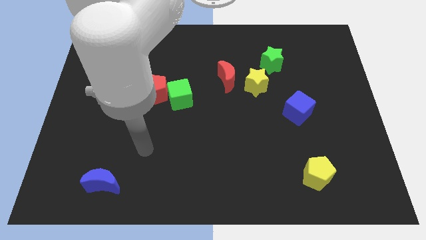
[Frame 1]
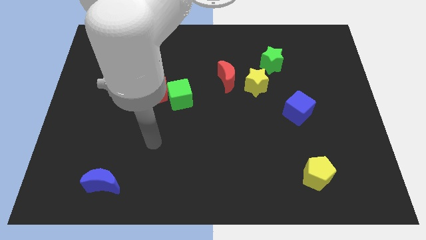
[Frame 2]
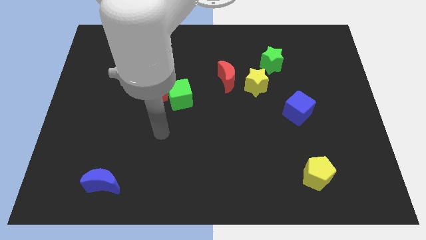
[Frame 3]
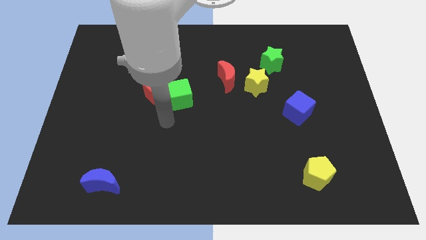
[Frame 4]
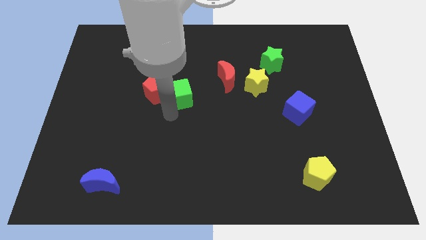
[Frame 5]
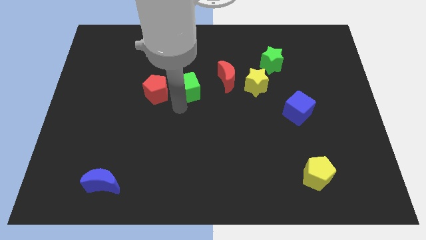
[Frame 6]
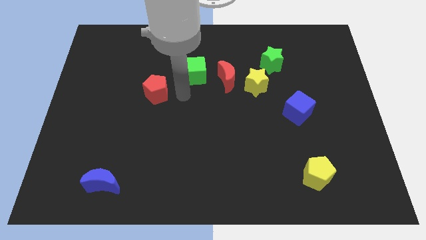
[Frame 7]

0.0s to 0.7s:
pull the red pentagon apart from the green cube

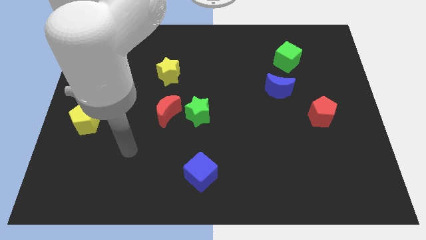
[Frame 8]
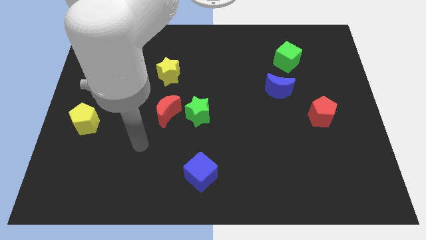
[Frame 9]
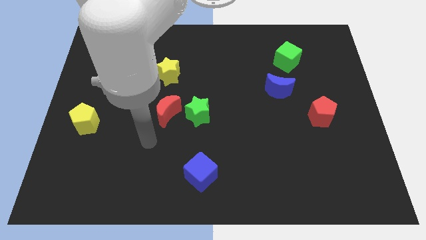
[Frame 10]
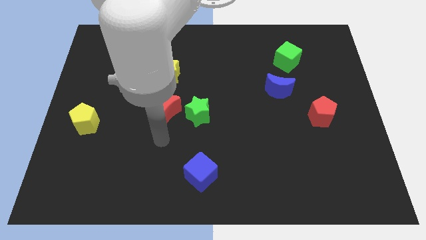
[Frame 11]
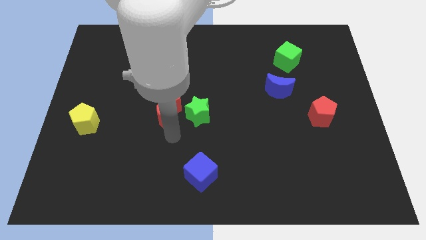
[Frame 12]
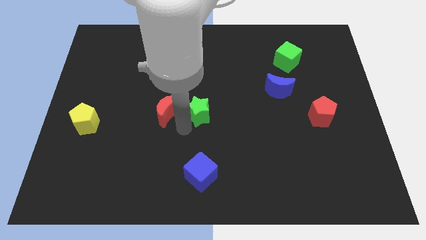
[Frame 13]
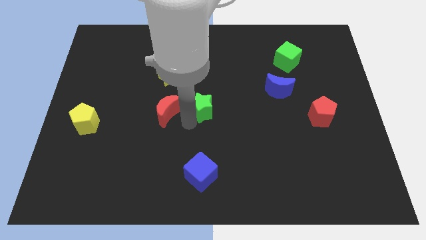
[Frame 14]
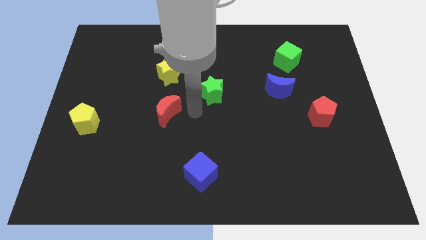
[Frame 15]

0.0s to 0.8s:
separate the red moon from the green star

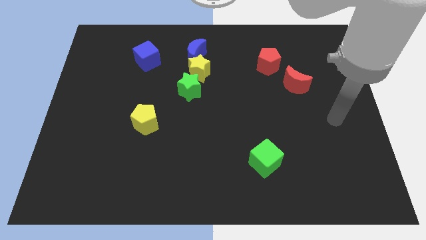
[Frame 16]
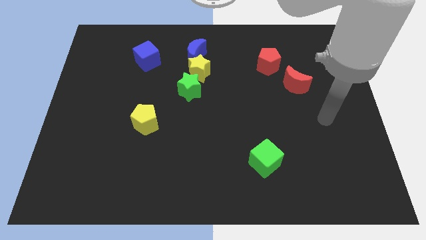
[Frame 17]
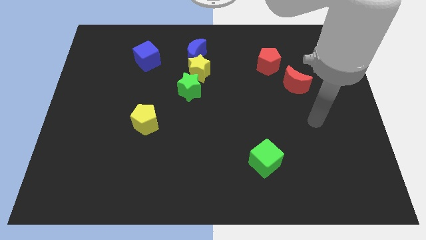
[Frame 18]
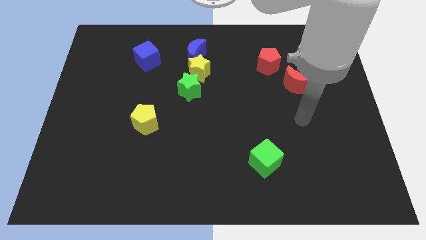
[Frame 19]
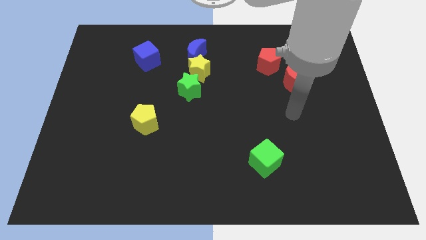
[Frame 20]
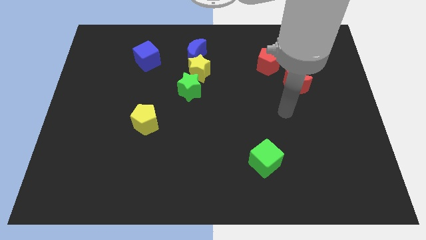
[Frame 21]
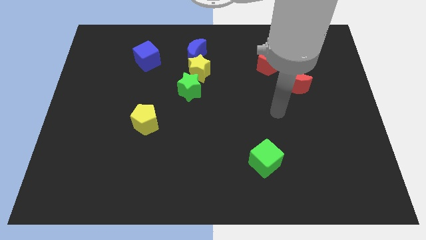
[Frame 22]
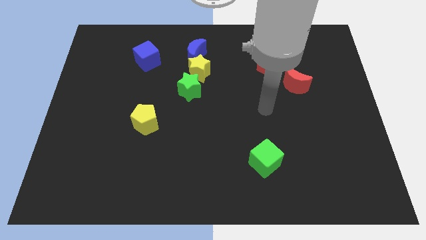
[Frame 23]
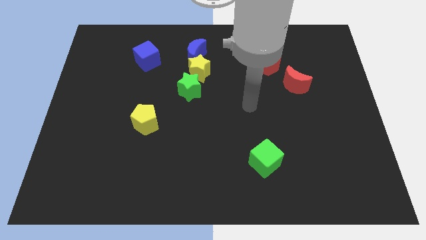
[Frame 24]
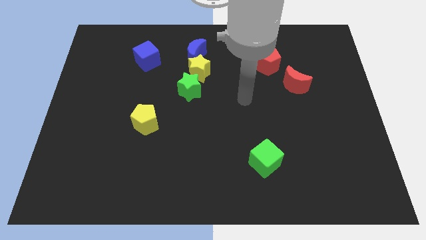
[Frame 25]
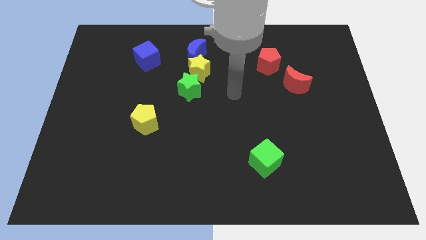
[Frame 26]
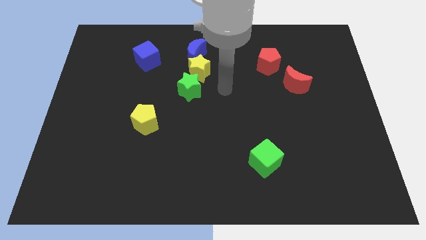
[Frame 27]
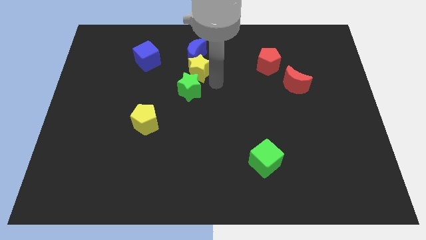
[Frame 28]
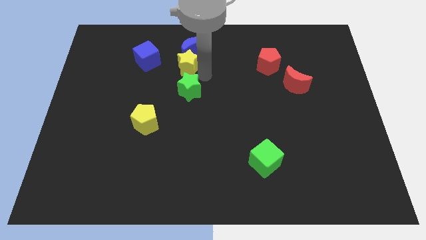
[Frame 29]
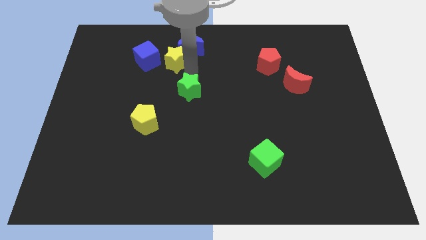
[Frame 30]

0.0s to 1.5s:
separate the green star from the yellow star

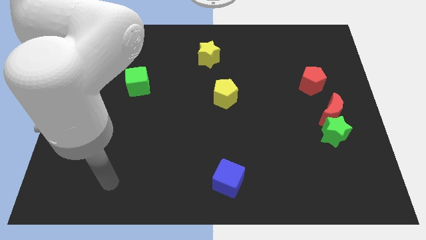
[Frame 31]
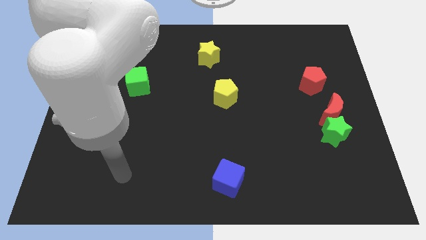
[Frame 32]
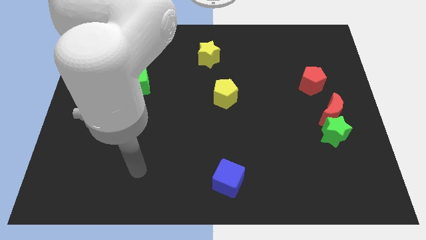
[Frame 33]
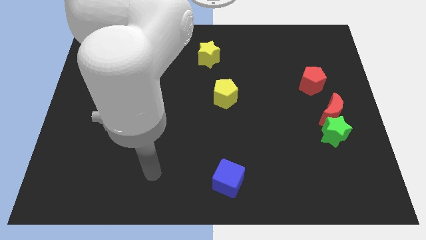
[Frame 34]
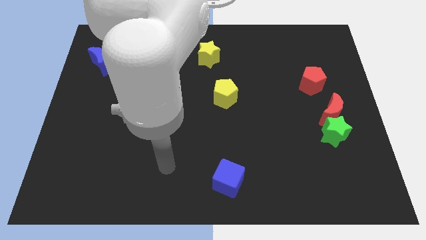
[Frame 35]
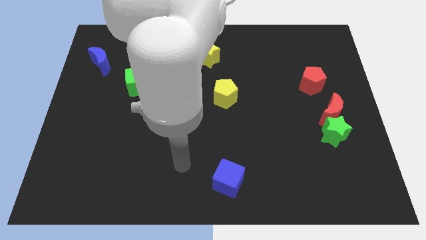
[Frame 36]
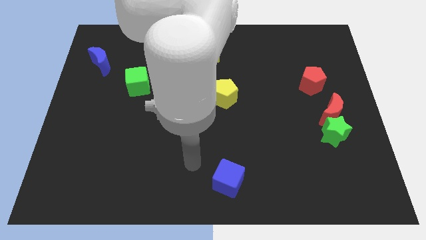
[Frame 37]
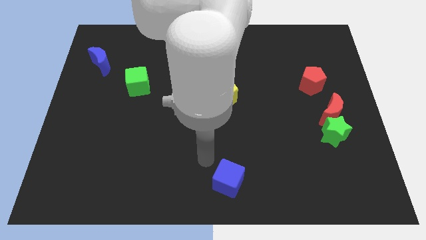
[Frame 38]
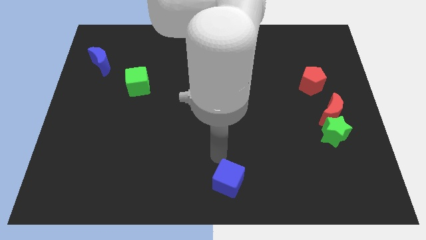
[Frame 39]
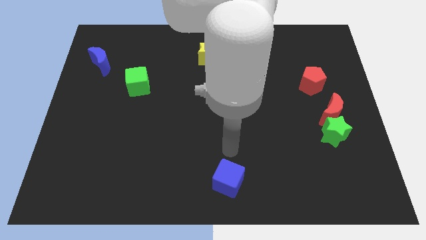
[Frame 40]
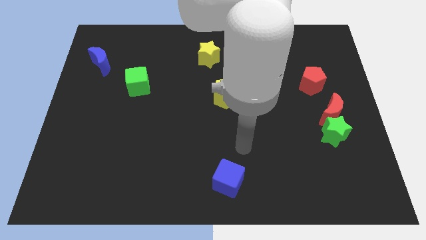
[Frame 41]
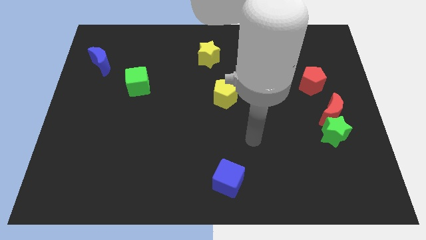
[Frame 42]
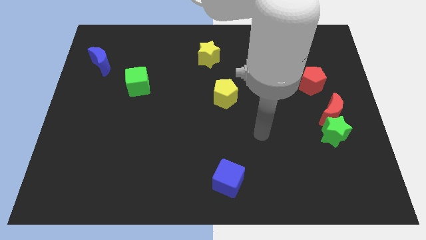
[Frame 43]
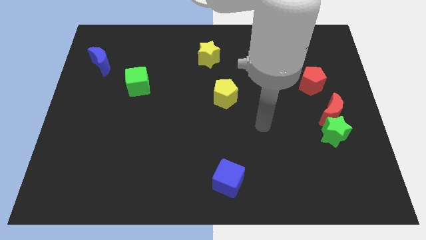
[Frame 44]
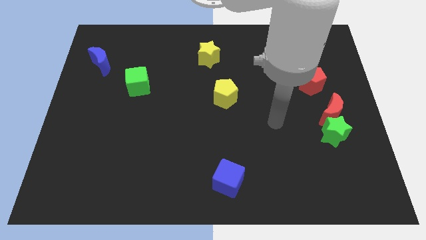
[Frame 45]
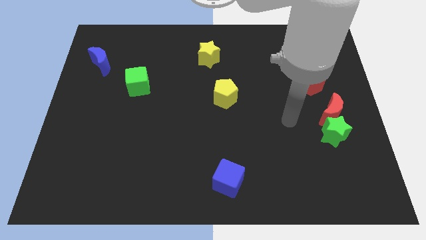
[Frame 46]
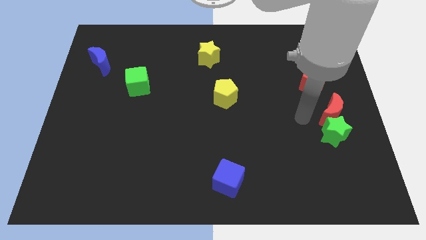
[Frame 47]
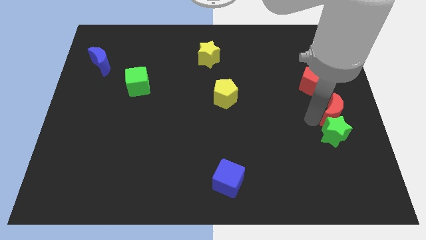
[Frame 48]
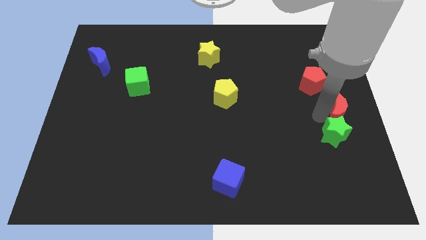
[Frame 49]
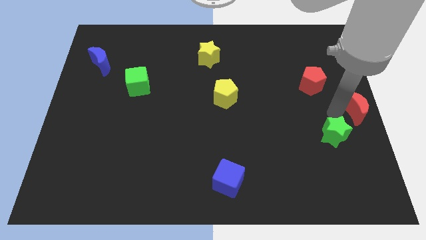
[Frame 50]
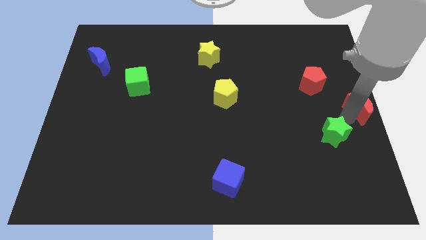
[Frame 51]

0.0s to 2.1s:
pull the green star apart from the red moon

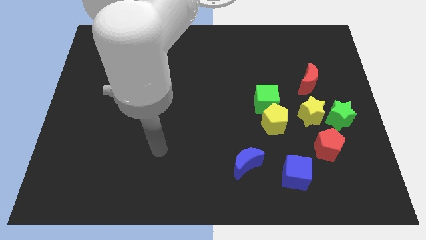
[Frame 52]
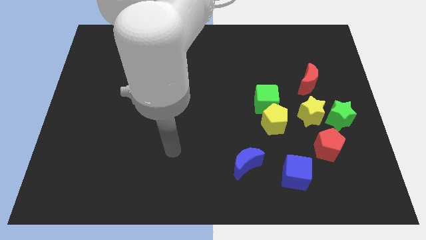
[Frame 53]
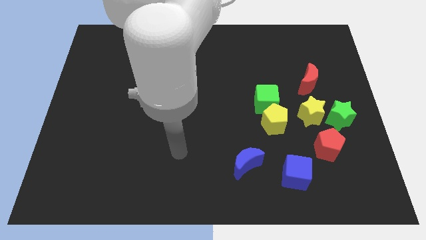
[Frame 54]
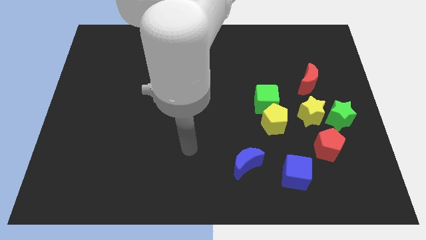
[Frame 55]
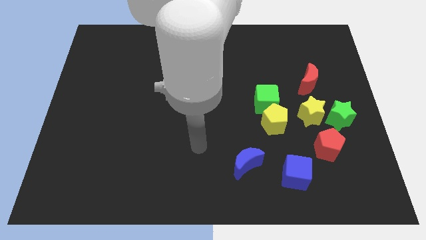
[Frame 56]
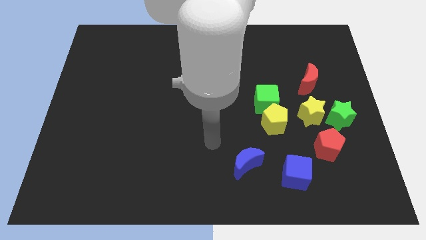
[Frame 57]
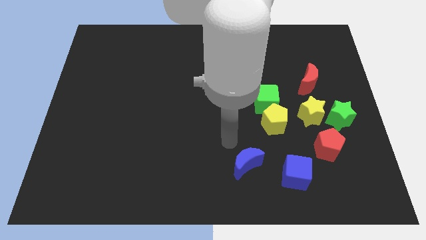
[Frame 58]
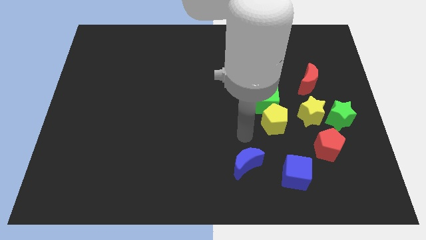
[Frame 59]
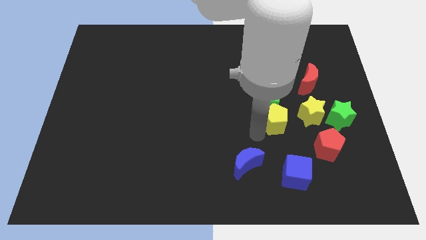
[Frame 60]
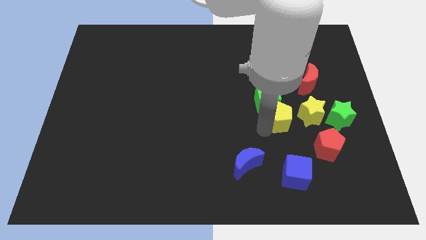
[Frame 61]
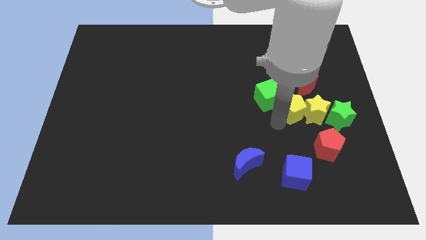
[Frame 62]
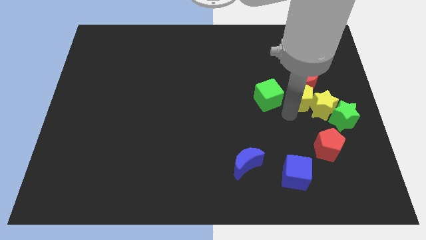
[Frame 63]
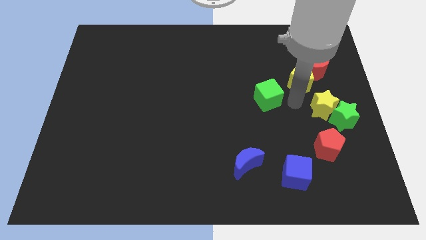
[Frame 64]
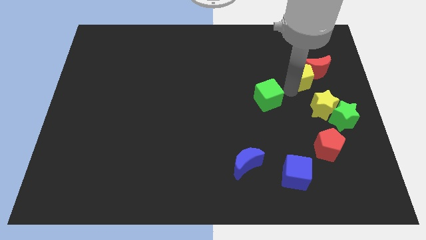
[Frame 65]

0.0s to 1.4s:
move the green cube away from the yellow pentagon

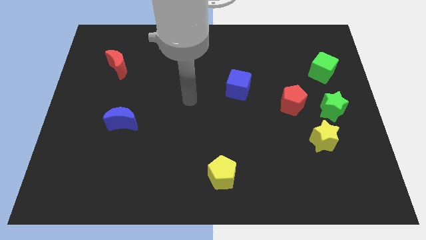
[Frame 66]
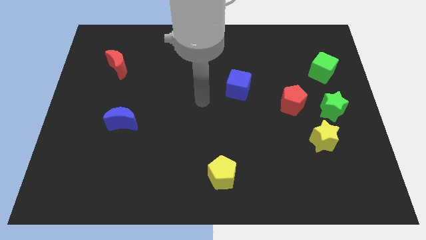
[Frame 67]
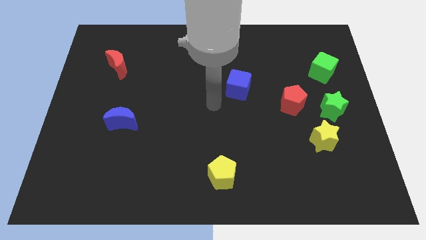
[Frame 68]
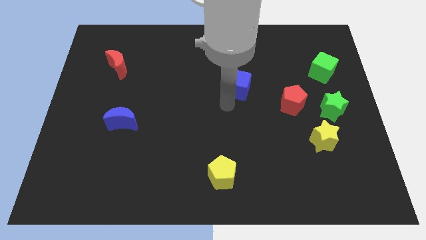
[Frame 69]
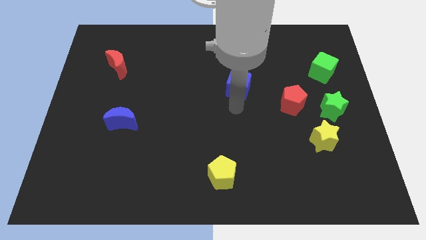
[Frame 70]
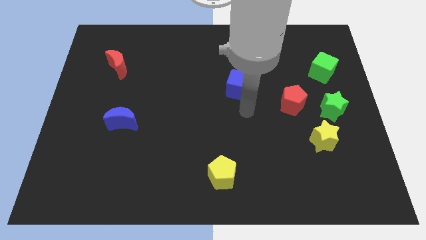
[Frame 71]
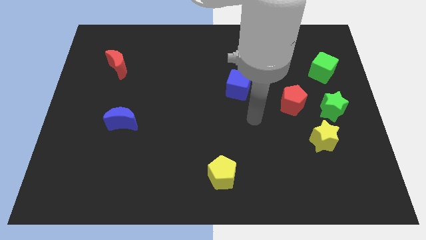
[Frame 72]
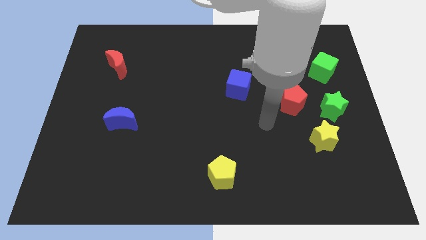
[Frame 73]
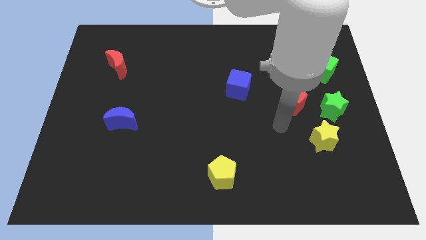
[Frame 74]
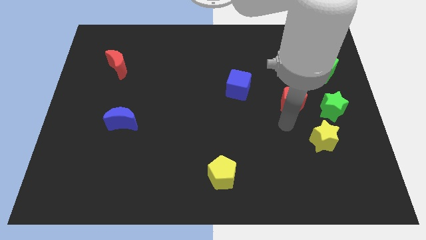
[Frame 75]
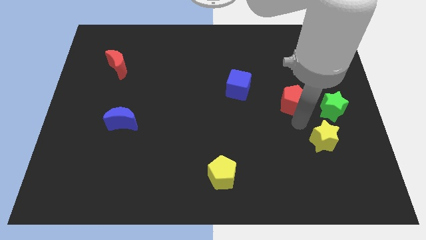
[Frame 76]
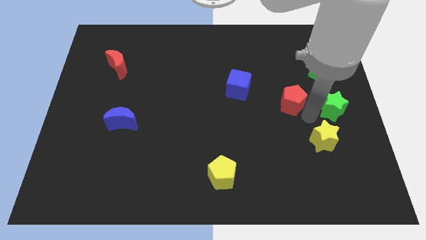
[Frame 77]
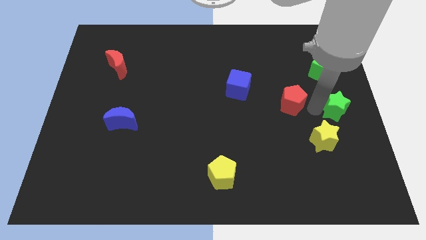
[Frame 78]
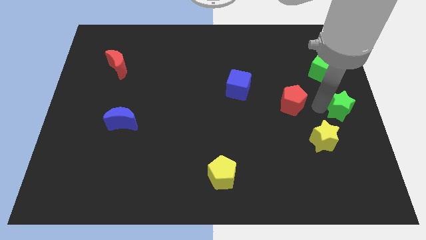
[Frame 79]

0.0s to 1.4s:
move the red pentagon away from the green star

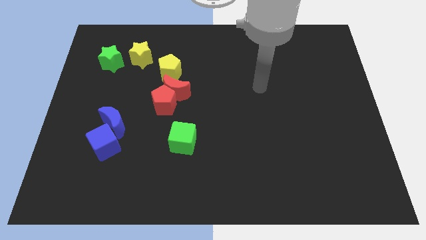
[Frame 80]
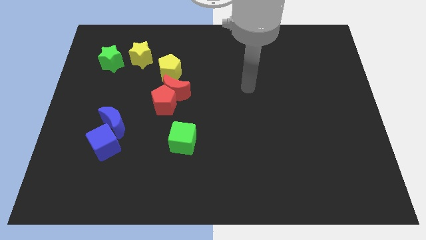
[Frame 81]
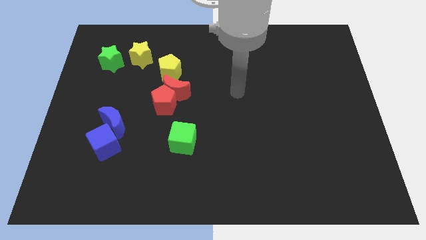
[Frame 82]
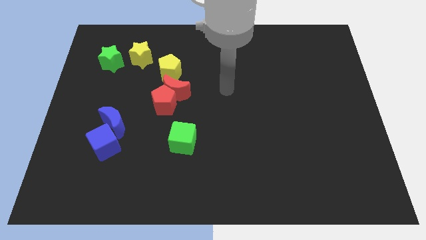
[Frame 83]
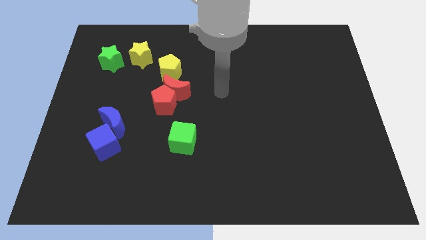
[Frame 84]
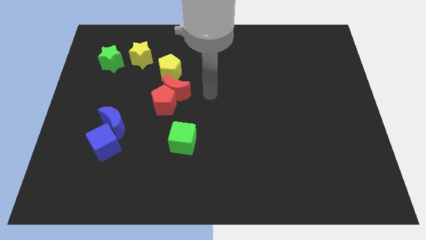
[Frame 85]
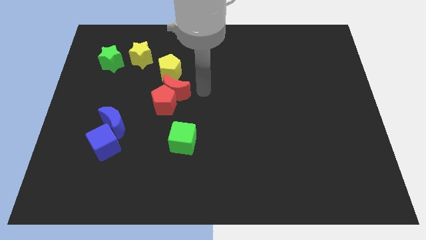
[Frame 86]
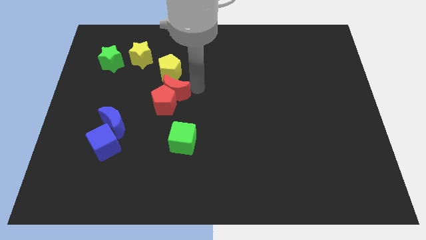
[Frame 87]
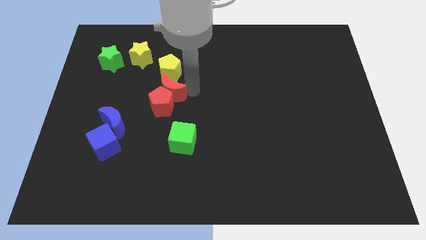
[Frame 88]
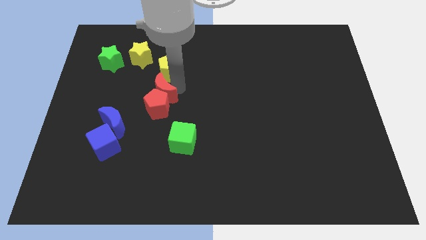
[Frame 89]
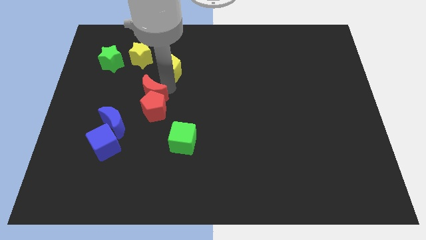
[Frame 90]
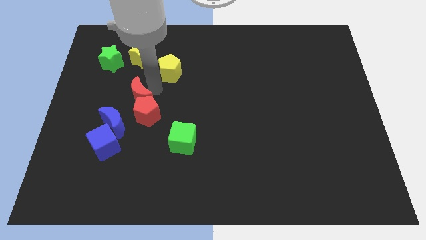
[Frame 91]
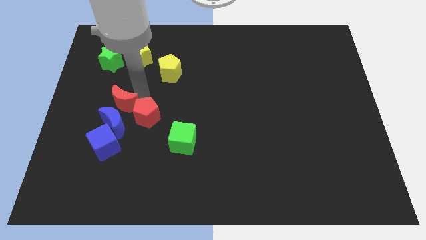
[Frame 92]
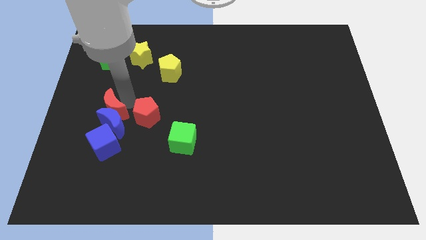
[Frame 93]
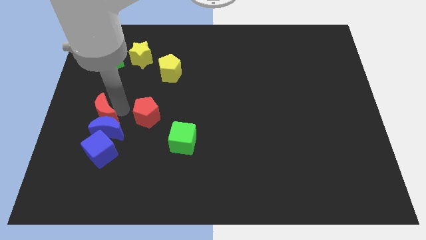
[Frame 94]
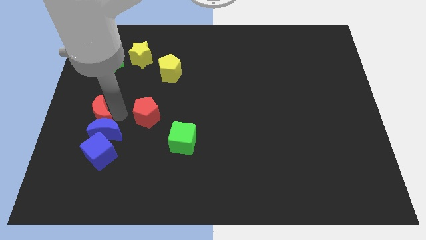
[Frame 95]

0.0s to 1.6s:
pull the red pentagon apart from the red moon
